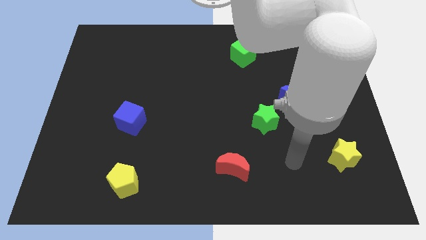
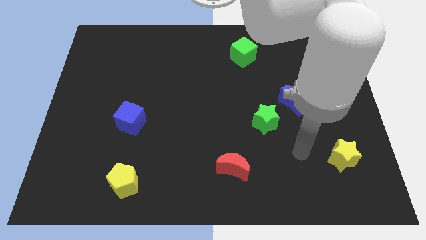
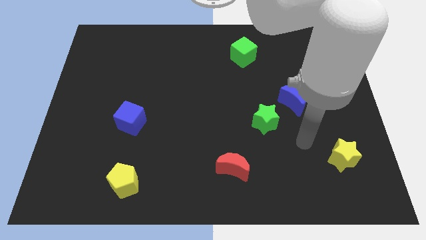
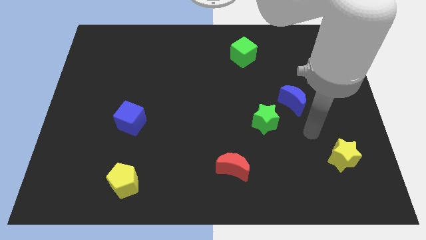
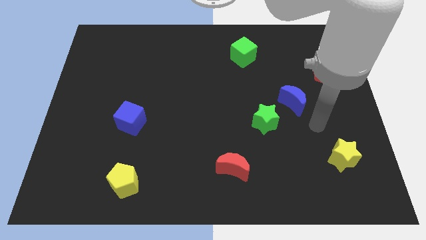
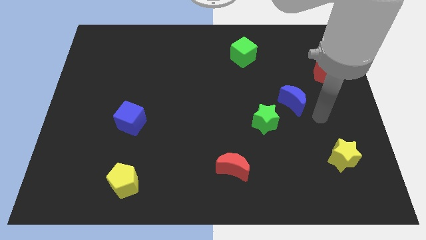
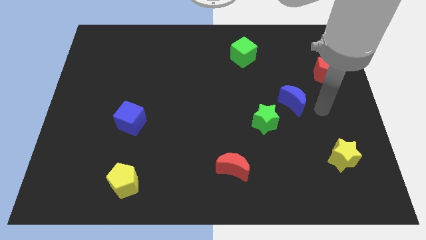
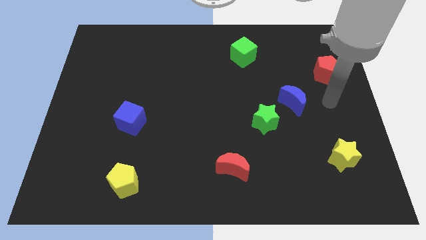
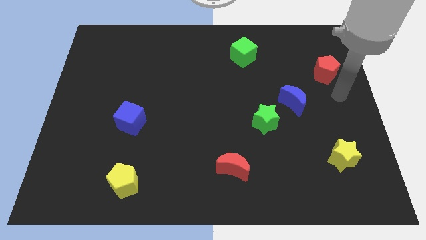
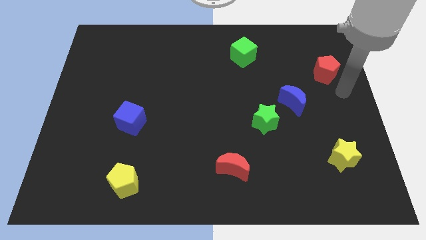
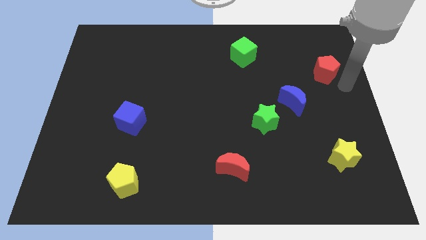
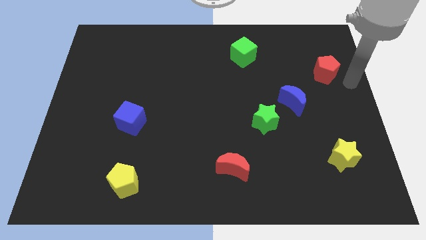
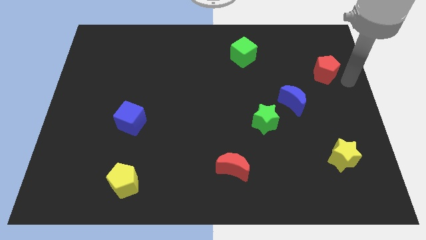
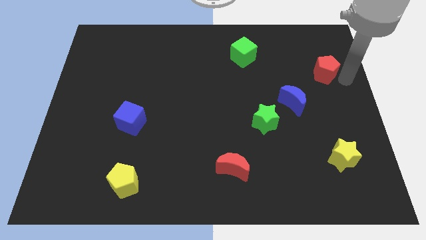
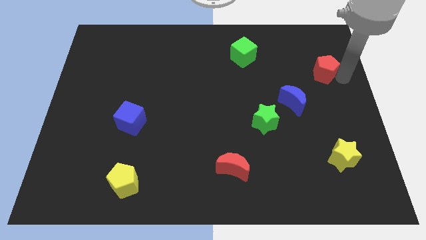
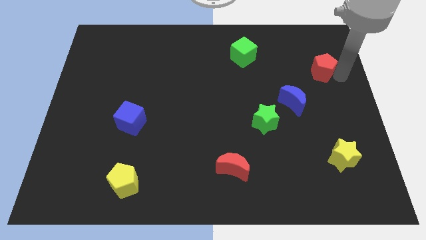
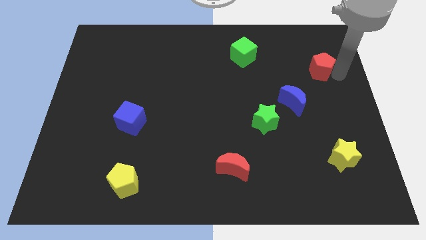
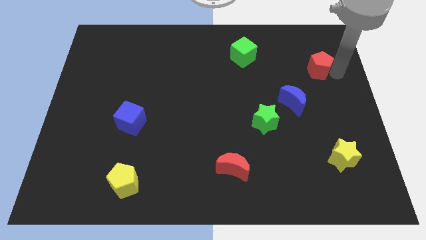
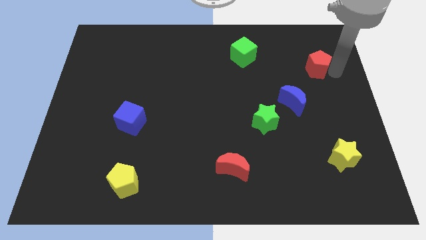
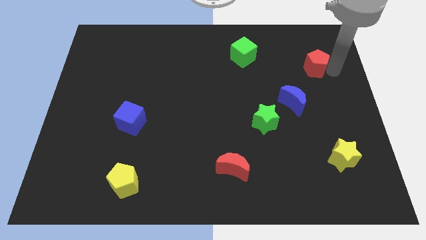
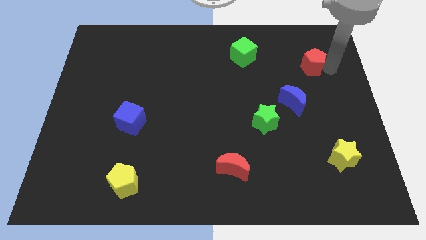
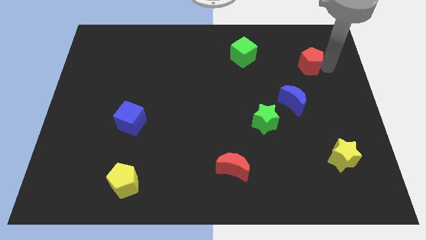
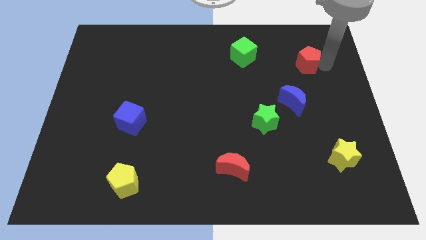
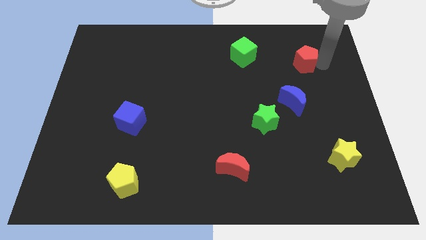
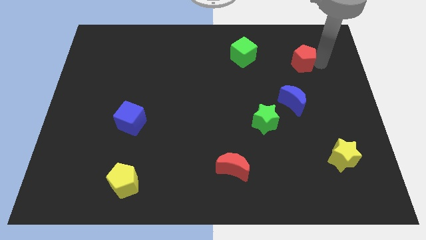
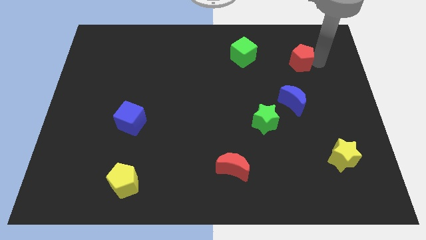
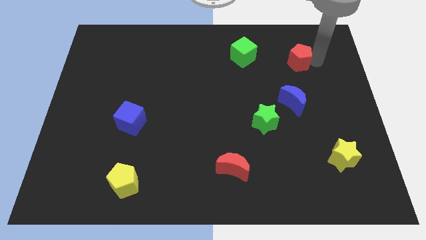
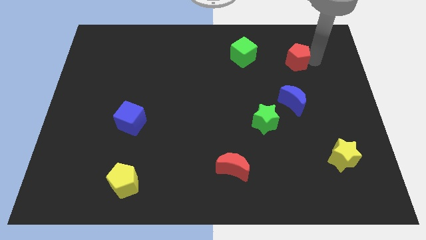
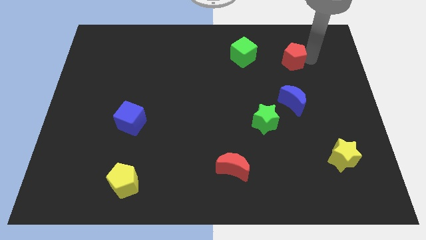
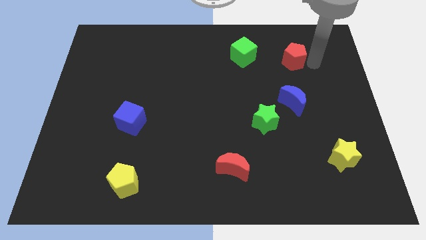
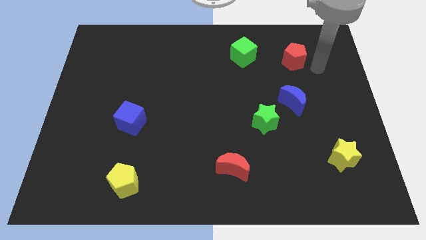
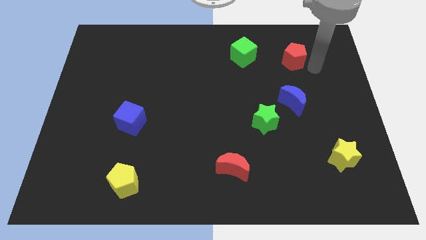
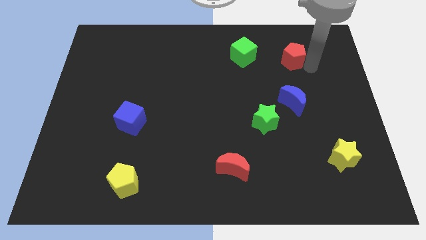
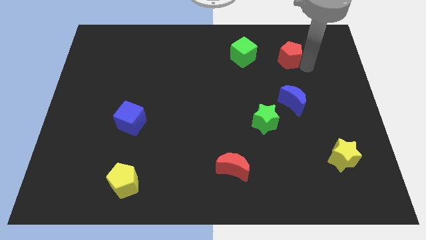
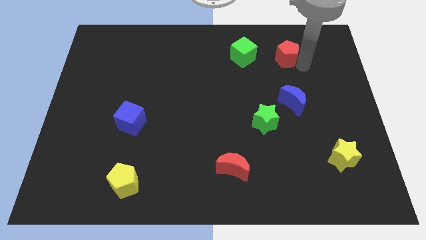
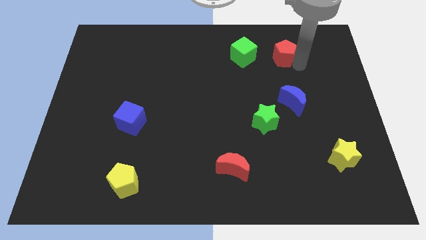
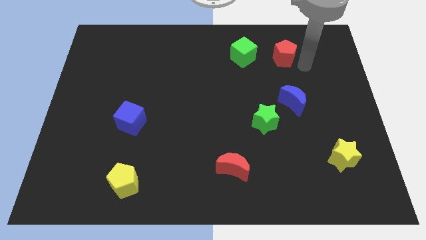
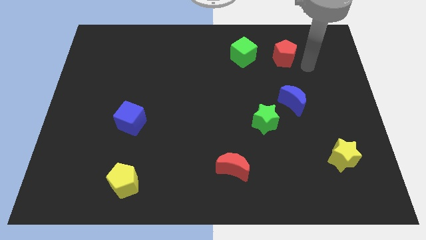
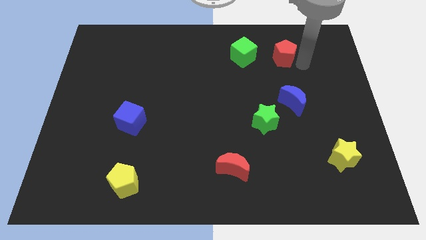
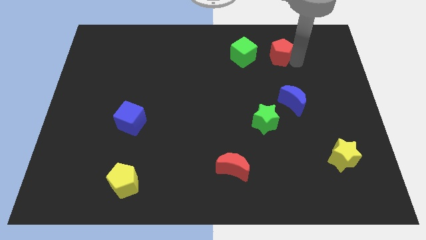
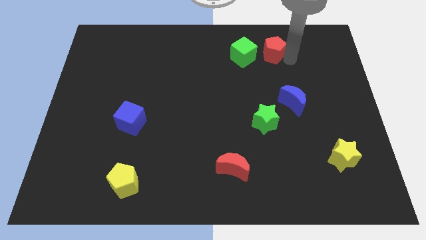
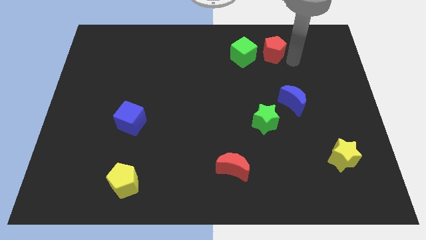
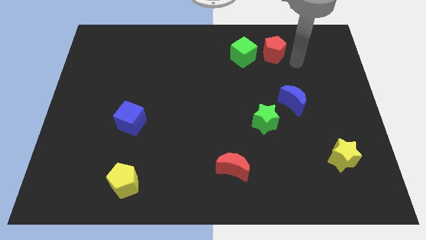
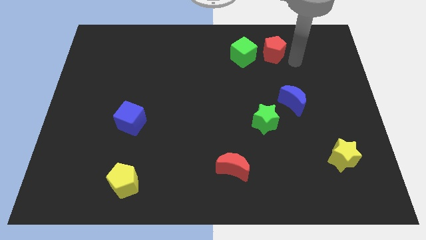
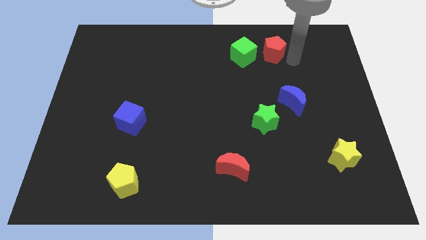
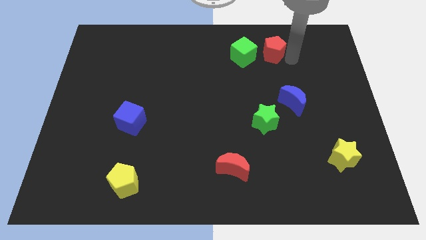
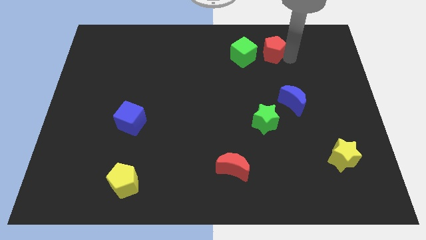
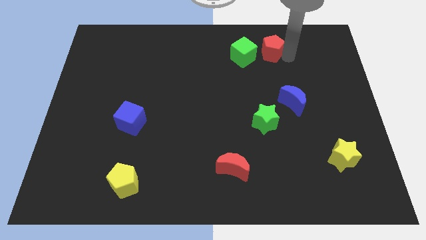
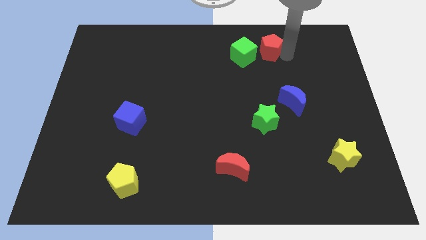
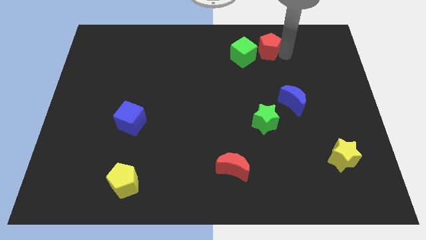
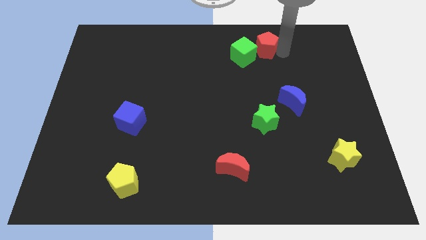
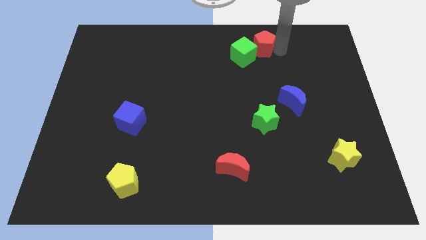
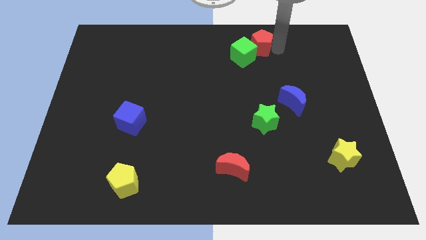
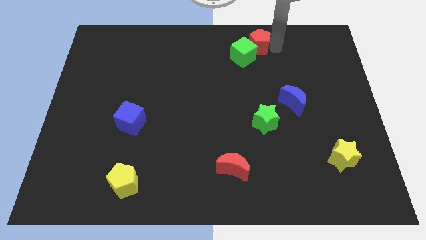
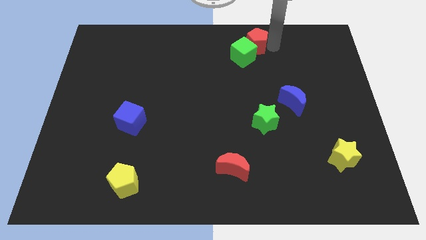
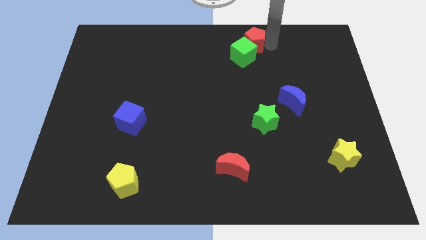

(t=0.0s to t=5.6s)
slide the red pentagon to the towards your base

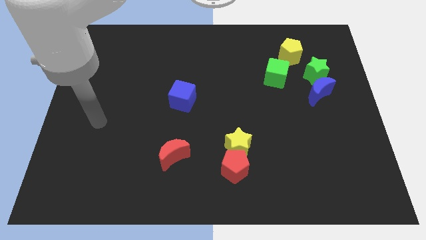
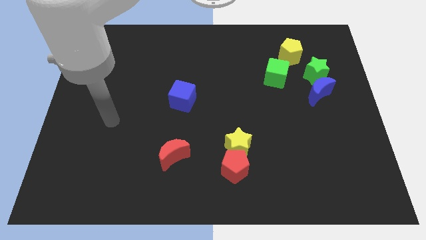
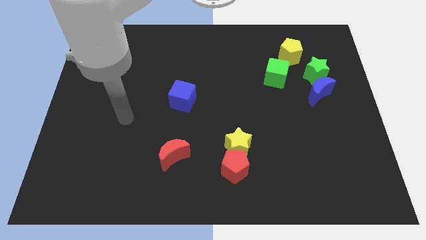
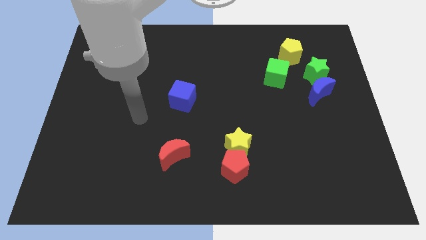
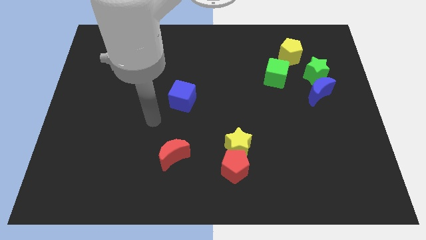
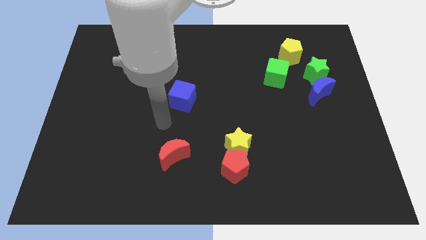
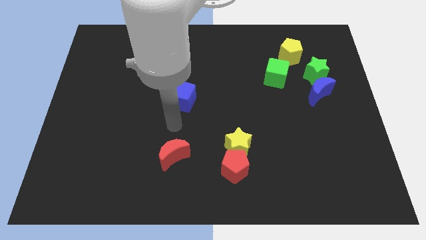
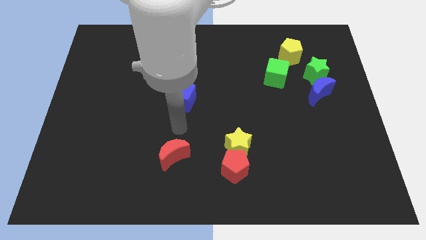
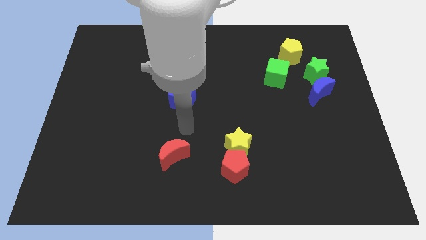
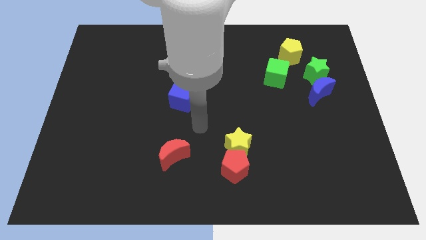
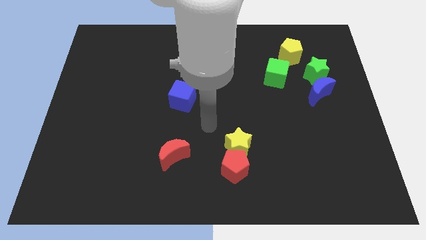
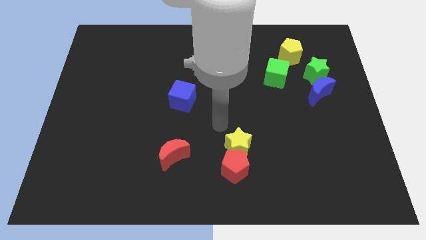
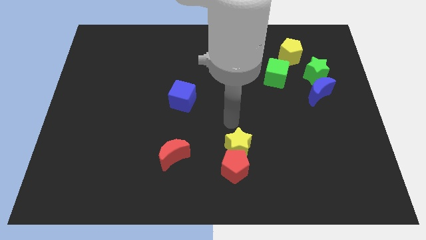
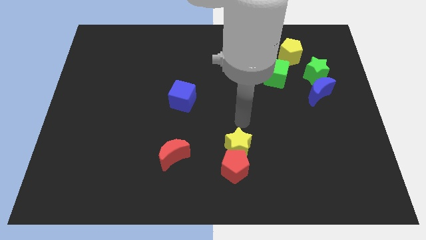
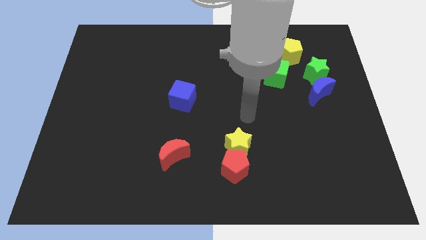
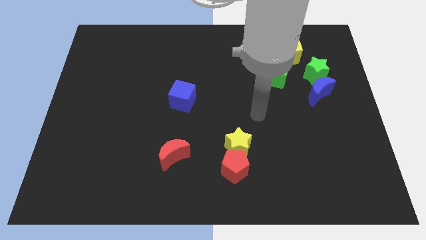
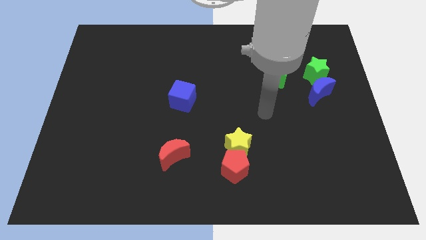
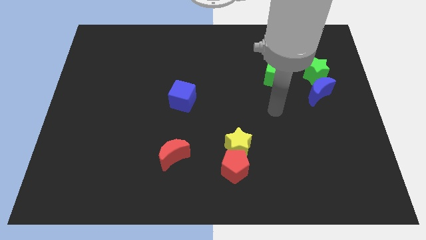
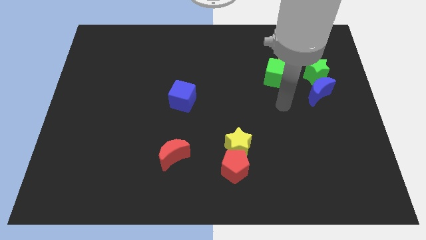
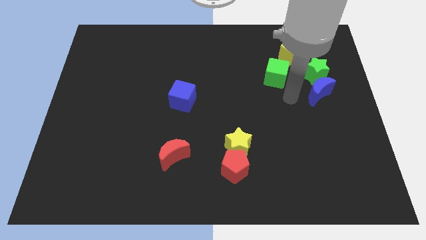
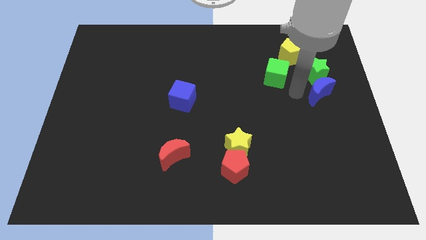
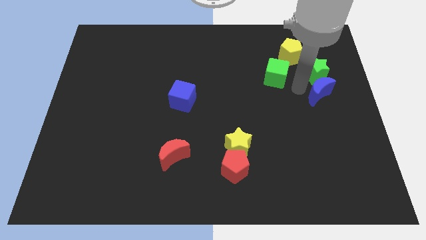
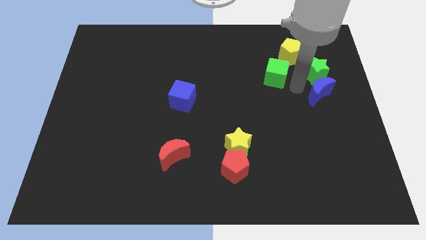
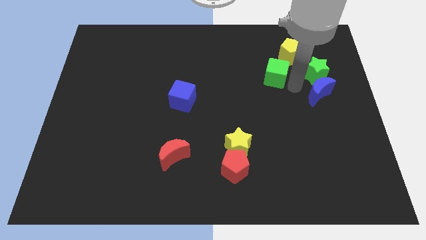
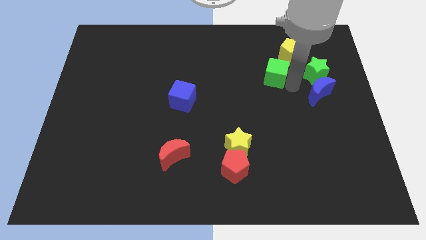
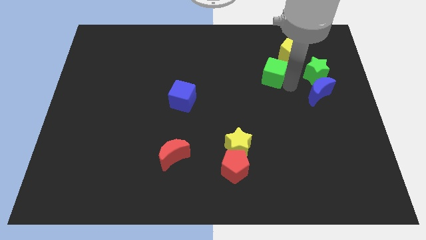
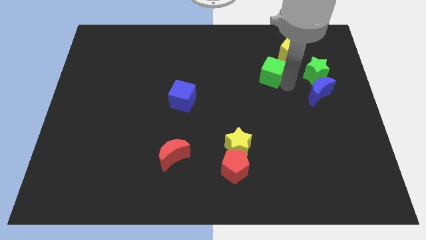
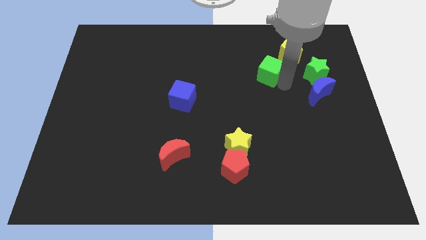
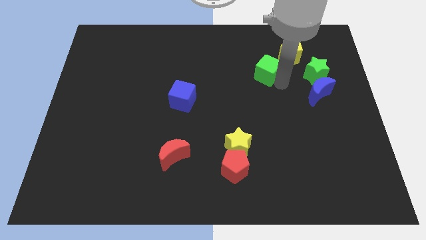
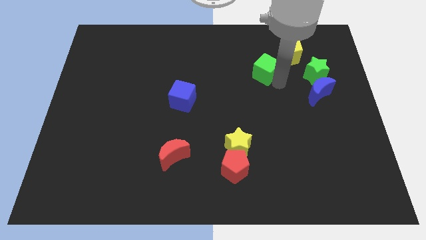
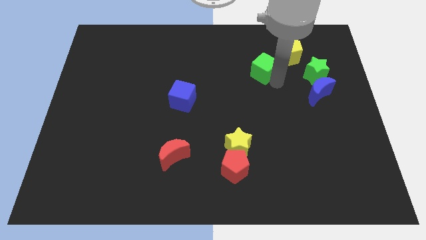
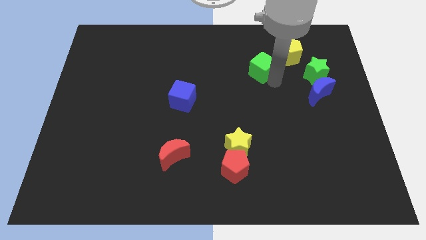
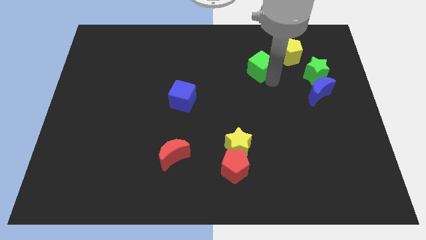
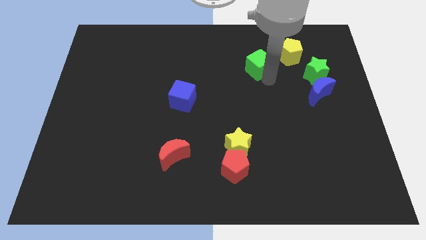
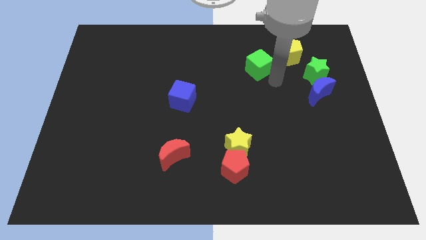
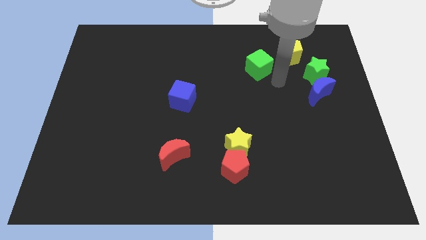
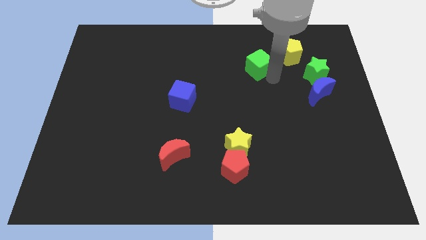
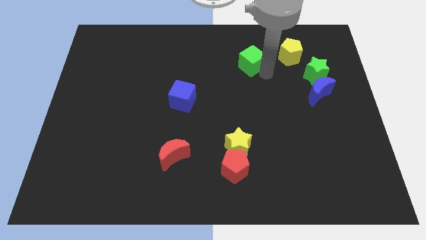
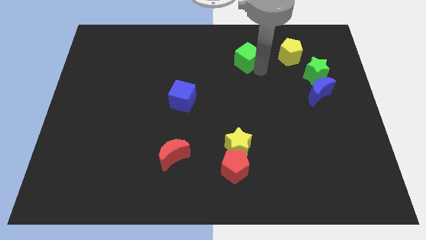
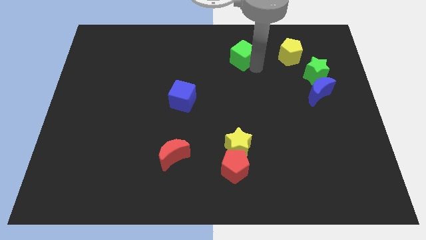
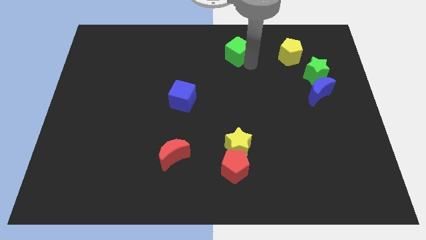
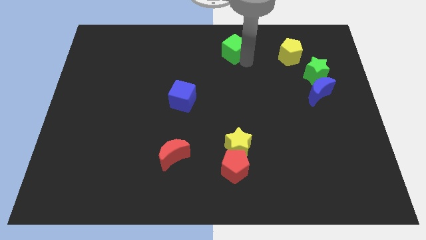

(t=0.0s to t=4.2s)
push the green cube to the top
